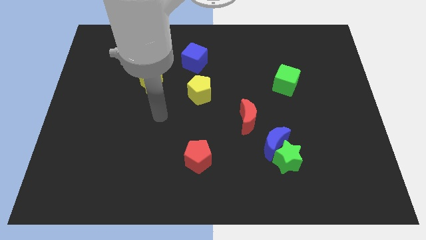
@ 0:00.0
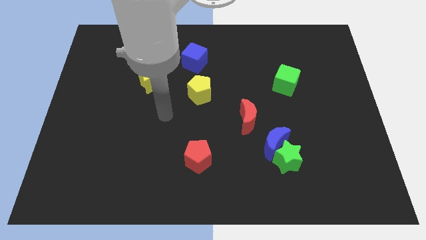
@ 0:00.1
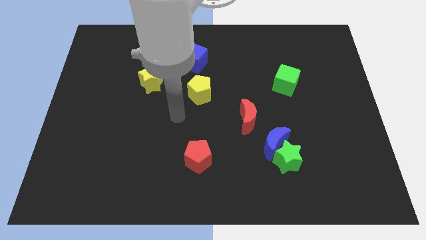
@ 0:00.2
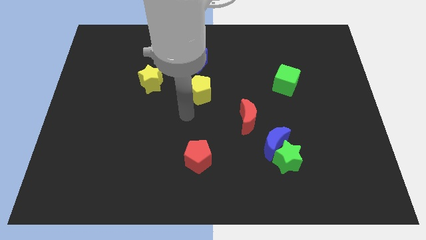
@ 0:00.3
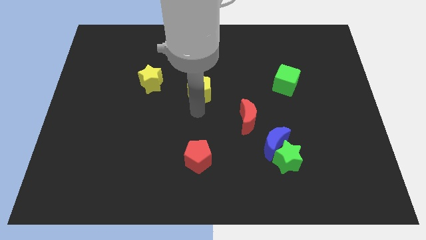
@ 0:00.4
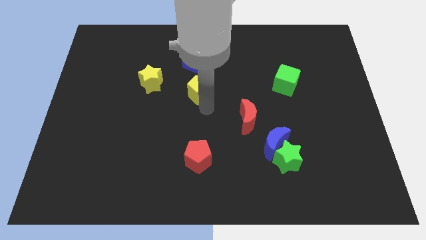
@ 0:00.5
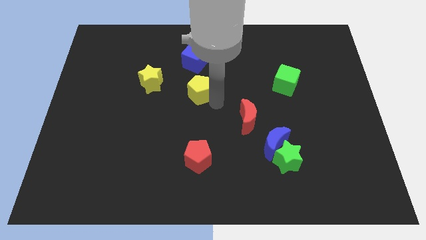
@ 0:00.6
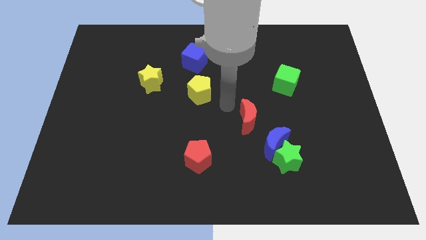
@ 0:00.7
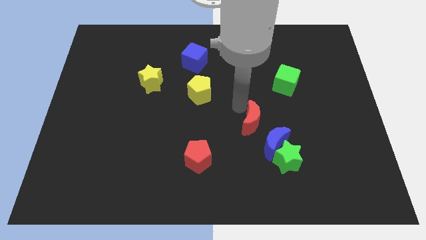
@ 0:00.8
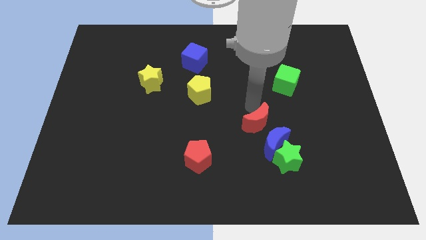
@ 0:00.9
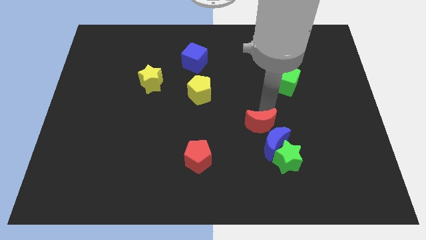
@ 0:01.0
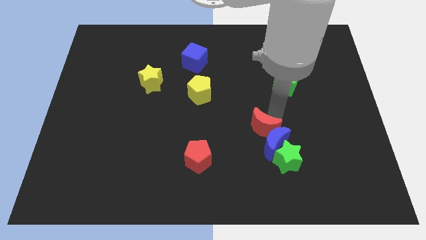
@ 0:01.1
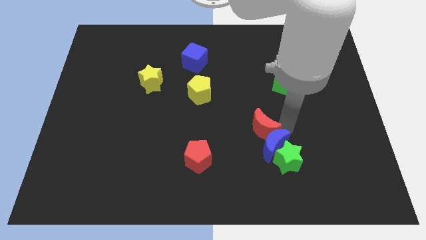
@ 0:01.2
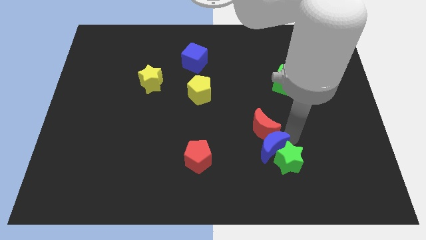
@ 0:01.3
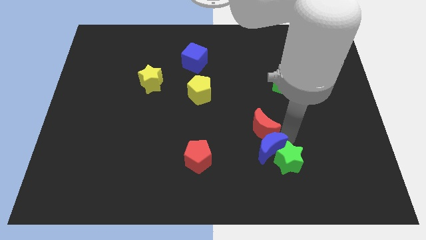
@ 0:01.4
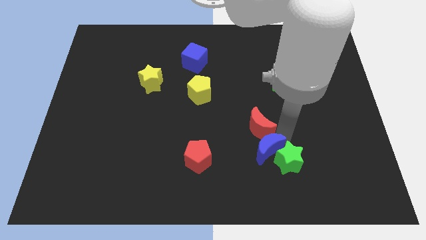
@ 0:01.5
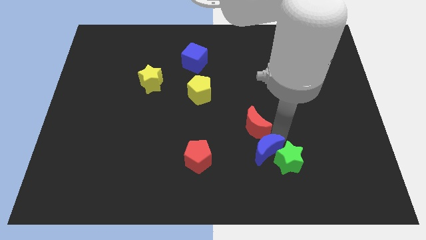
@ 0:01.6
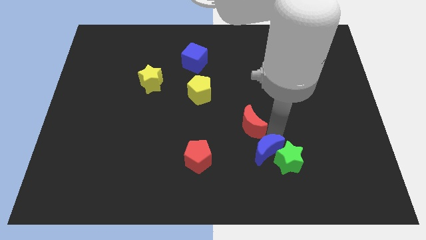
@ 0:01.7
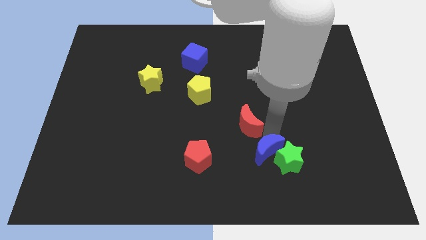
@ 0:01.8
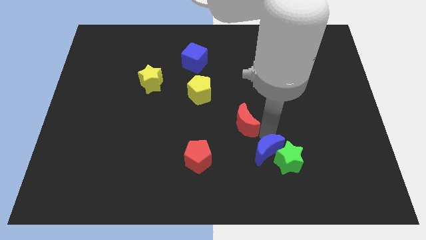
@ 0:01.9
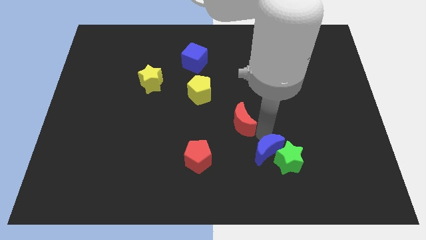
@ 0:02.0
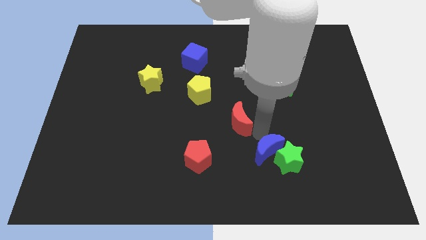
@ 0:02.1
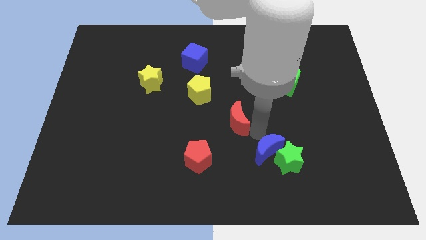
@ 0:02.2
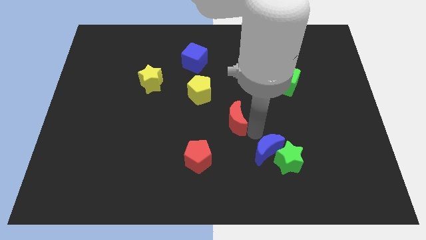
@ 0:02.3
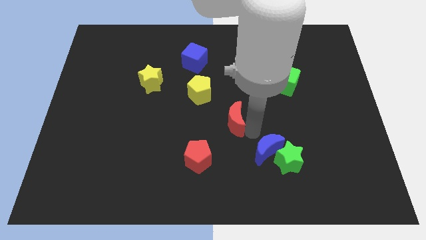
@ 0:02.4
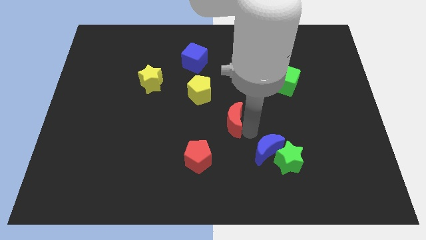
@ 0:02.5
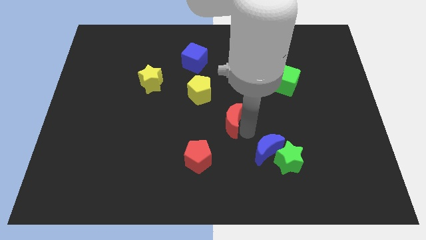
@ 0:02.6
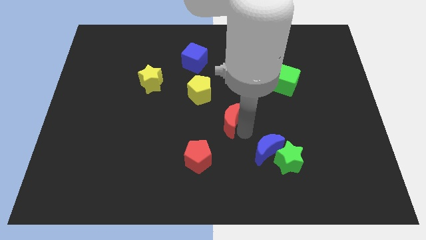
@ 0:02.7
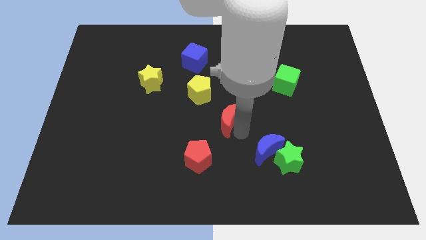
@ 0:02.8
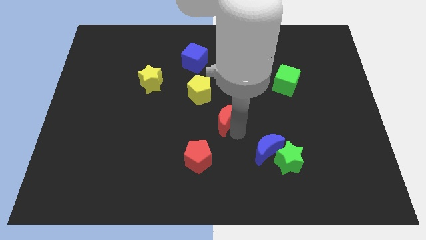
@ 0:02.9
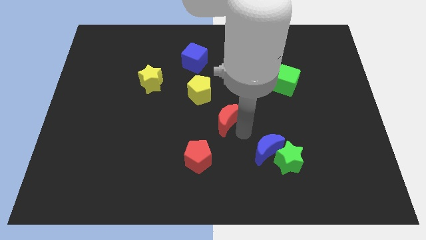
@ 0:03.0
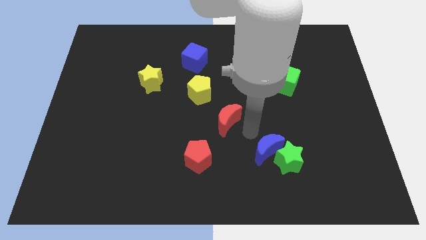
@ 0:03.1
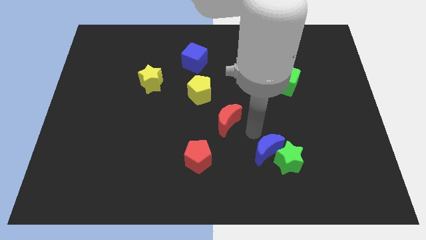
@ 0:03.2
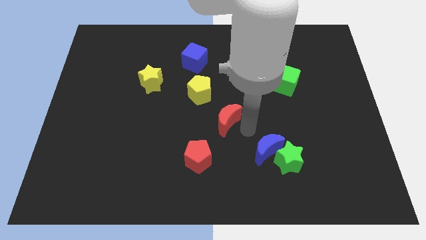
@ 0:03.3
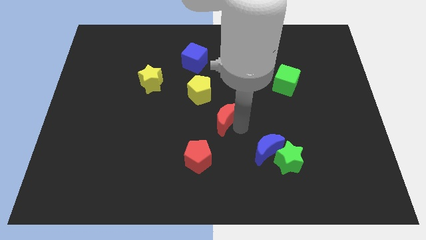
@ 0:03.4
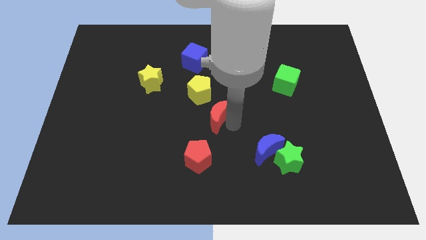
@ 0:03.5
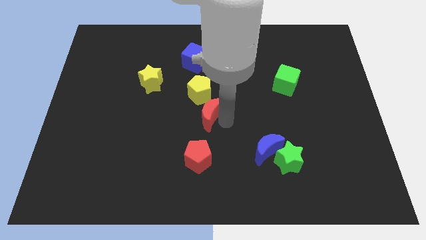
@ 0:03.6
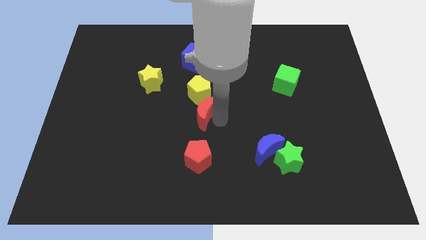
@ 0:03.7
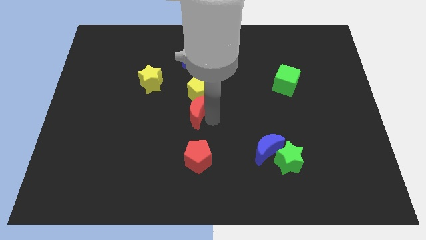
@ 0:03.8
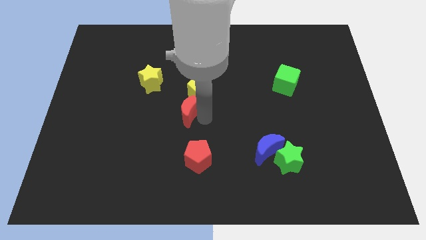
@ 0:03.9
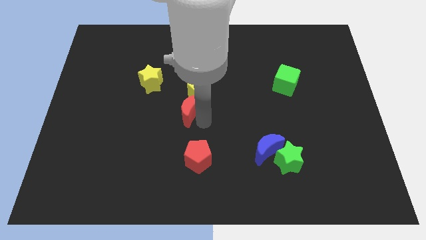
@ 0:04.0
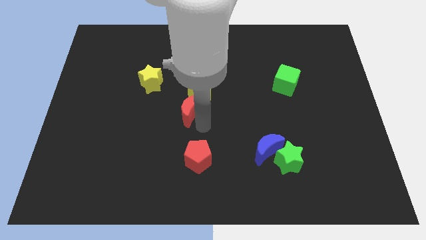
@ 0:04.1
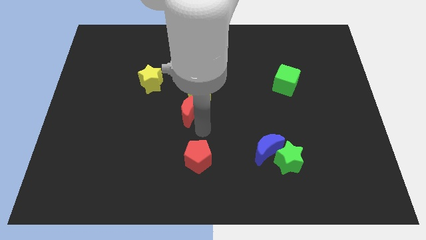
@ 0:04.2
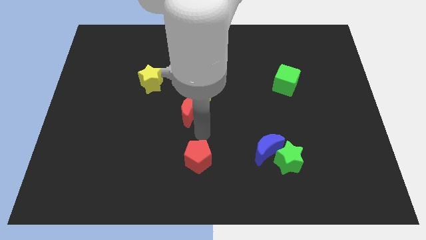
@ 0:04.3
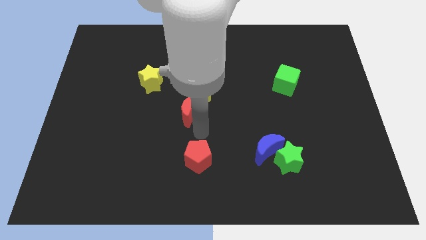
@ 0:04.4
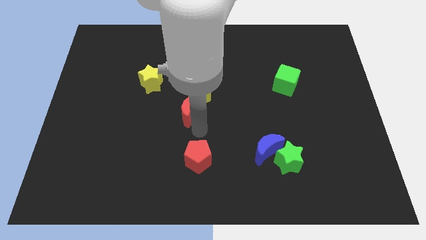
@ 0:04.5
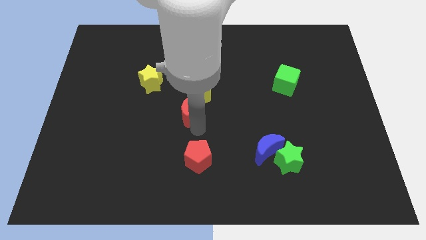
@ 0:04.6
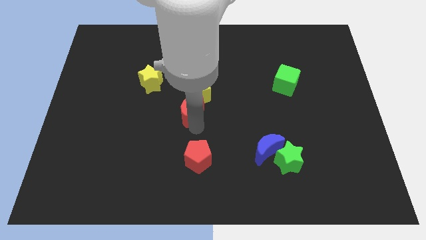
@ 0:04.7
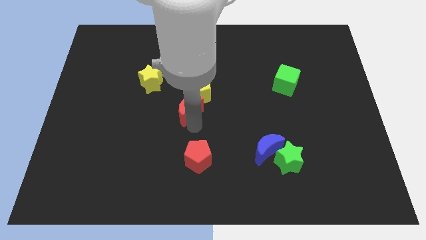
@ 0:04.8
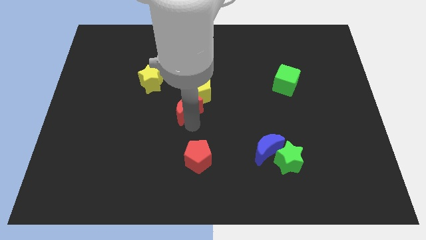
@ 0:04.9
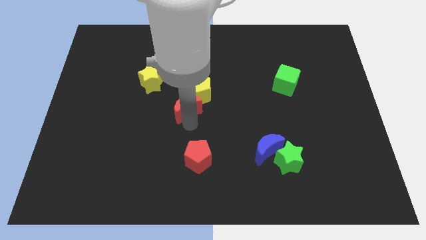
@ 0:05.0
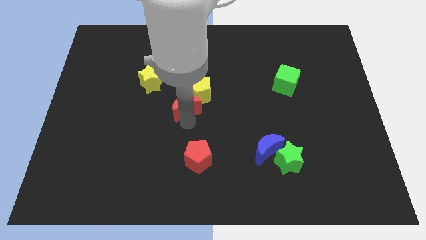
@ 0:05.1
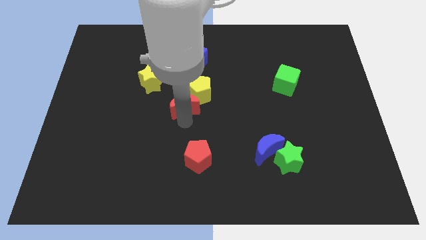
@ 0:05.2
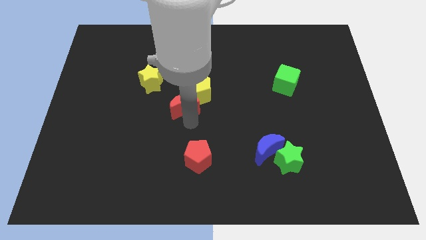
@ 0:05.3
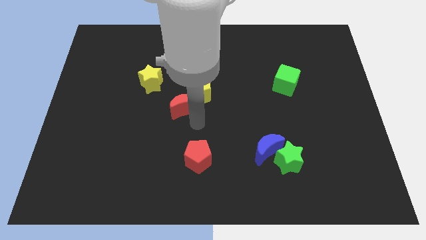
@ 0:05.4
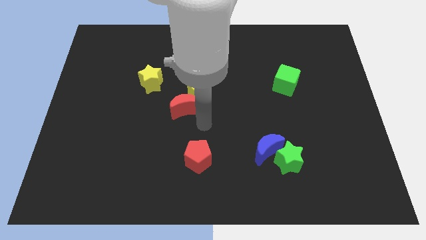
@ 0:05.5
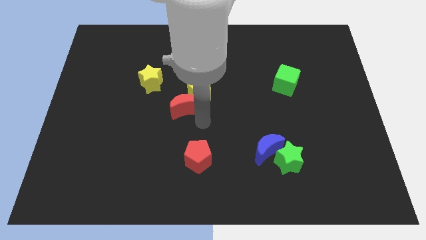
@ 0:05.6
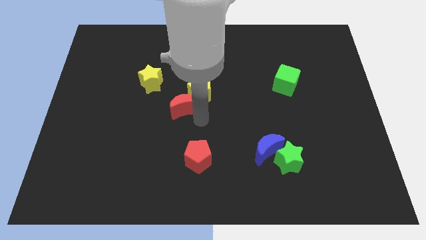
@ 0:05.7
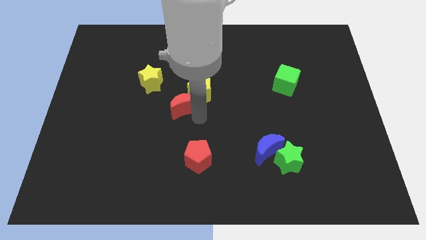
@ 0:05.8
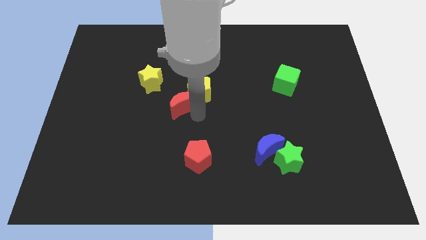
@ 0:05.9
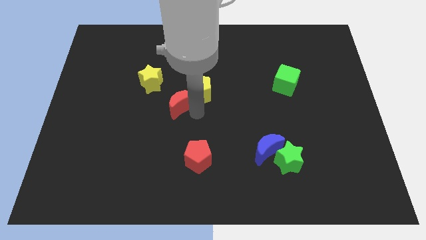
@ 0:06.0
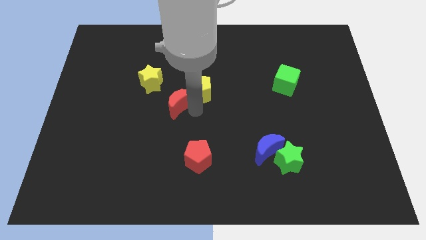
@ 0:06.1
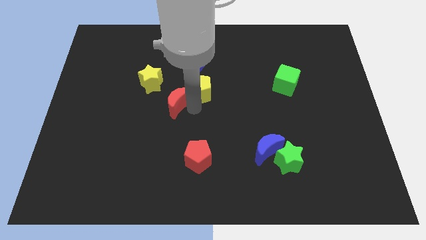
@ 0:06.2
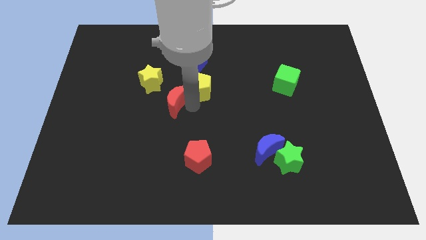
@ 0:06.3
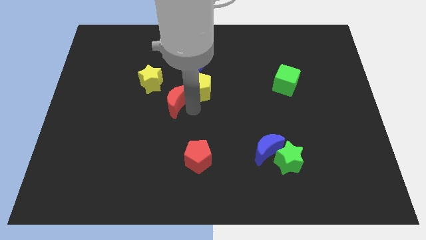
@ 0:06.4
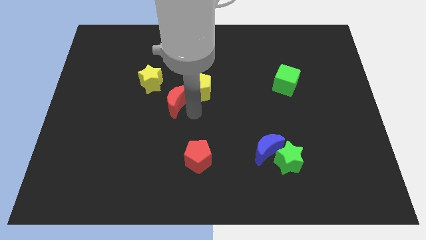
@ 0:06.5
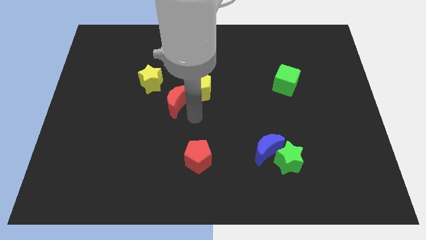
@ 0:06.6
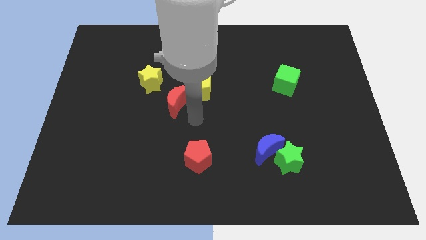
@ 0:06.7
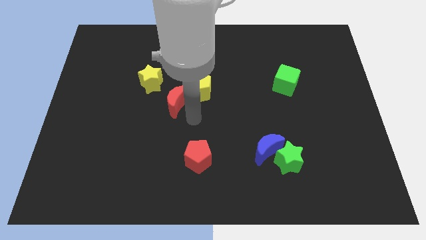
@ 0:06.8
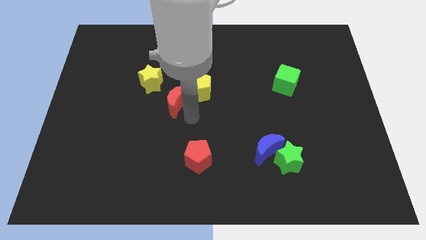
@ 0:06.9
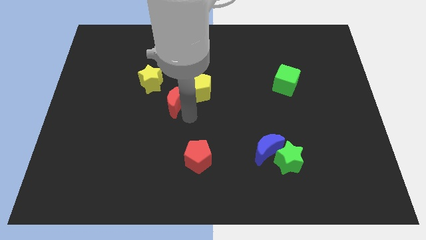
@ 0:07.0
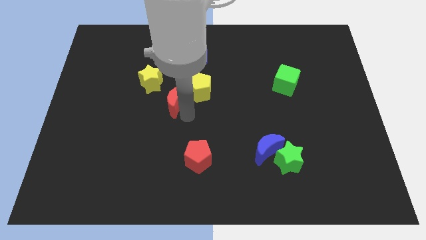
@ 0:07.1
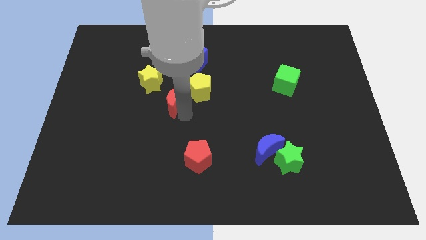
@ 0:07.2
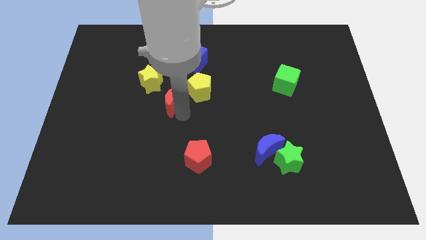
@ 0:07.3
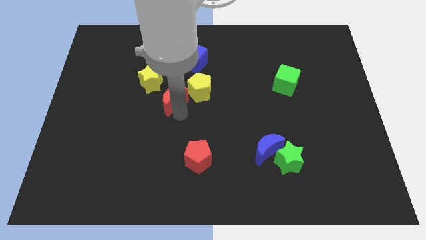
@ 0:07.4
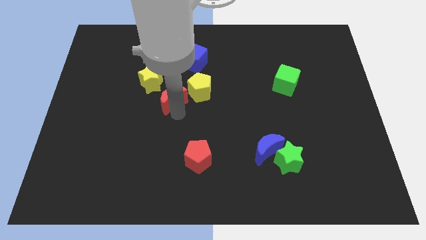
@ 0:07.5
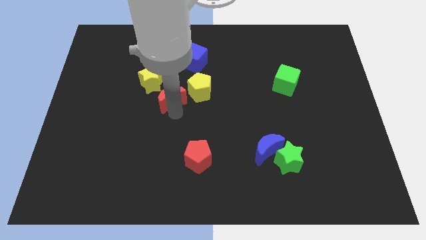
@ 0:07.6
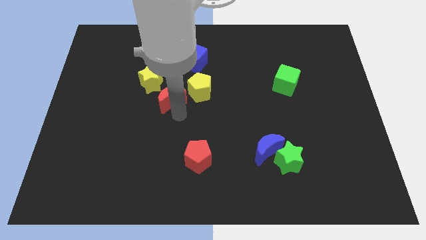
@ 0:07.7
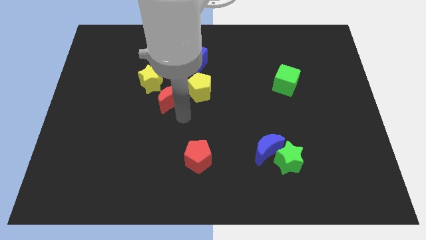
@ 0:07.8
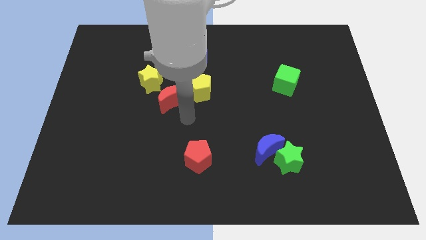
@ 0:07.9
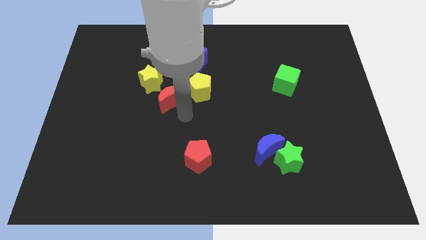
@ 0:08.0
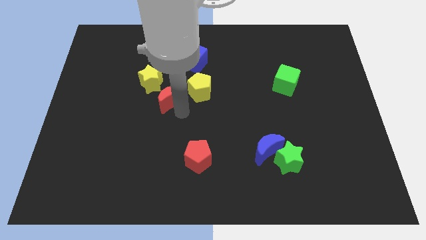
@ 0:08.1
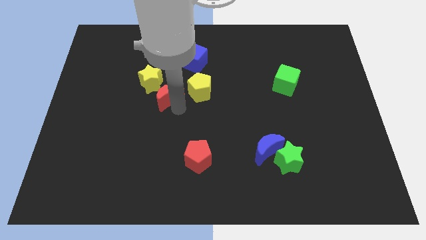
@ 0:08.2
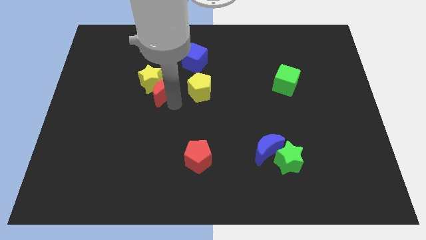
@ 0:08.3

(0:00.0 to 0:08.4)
push the red moon to the yellow star
